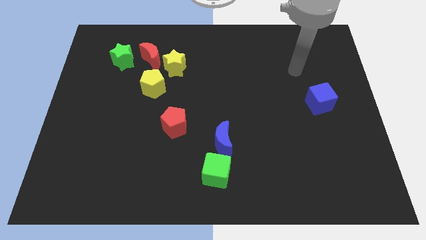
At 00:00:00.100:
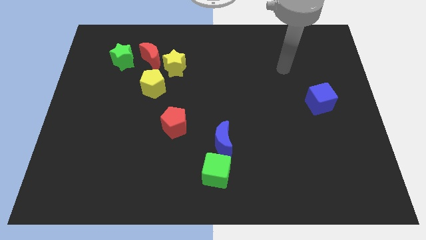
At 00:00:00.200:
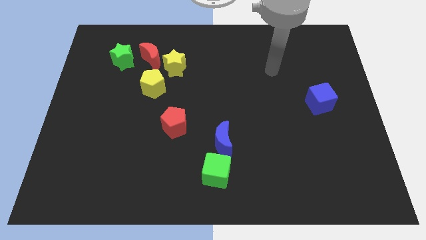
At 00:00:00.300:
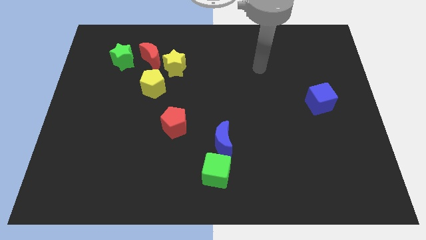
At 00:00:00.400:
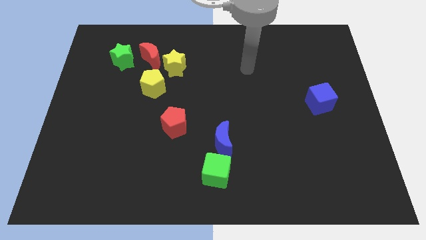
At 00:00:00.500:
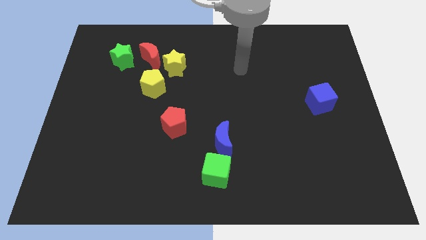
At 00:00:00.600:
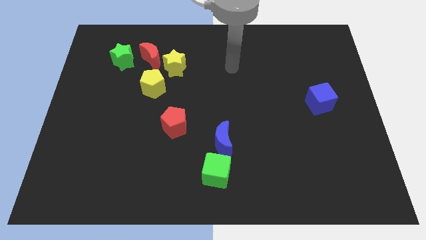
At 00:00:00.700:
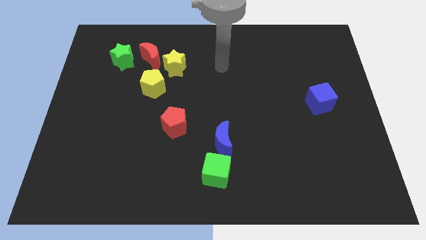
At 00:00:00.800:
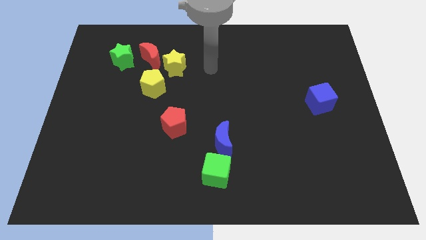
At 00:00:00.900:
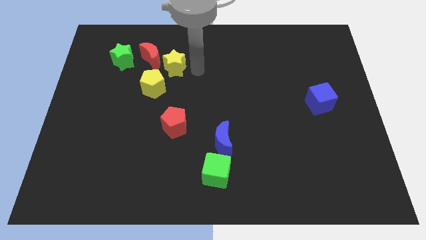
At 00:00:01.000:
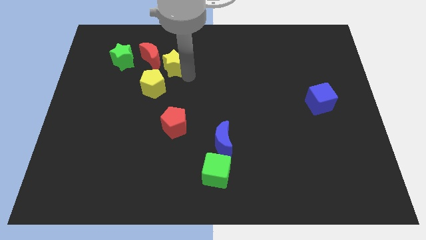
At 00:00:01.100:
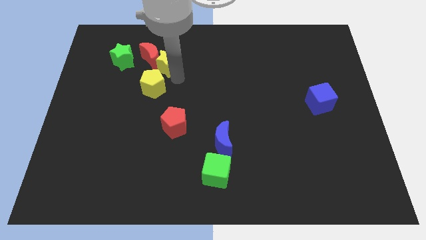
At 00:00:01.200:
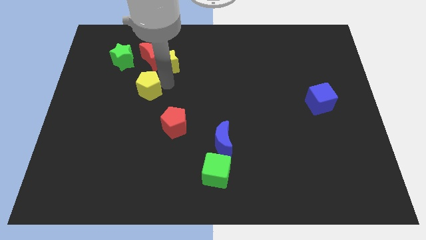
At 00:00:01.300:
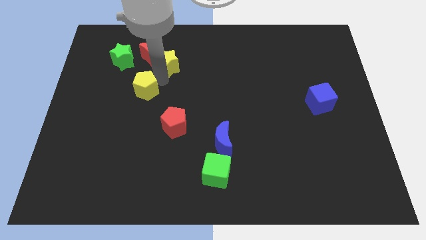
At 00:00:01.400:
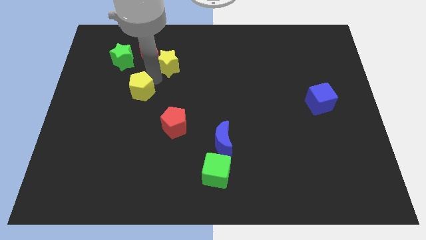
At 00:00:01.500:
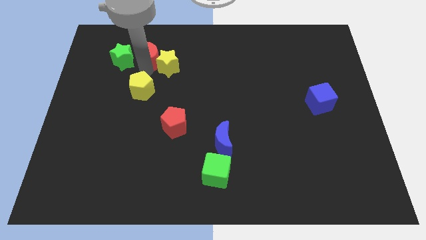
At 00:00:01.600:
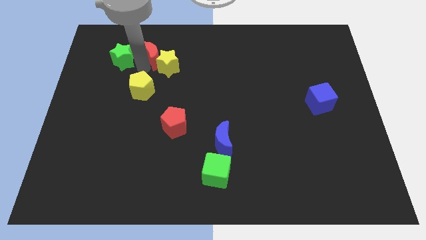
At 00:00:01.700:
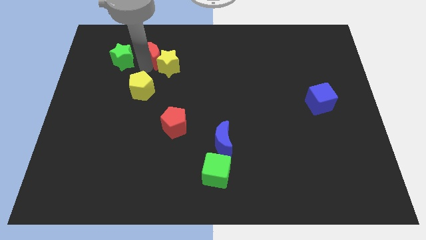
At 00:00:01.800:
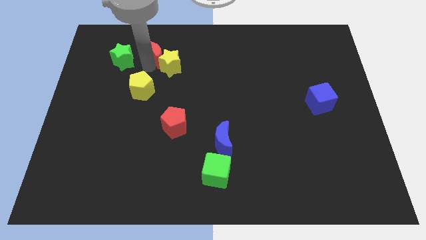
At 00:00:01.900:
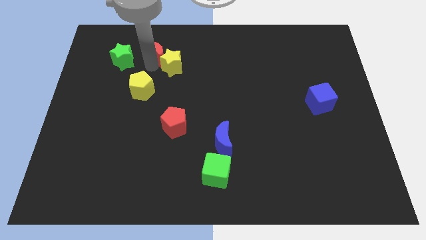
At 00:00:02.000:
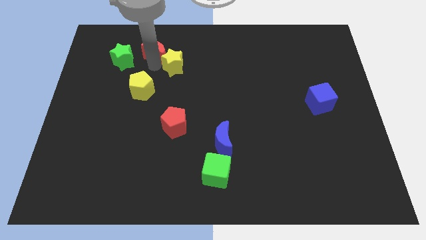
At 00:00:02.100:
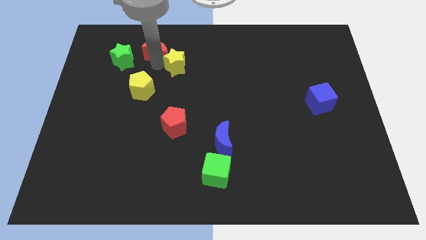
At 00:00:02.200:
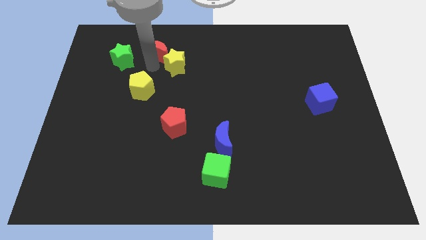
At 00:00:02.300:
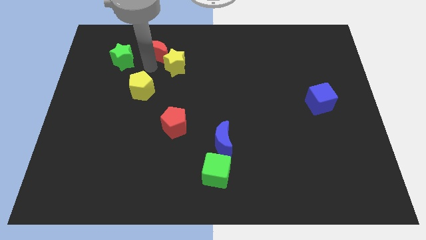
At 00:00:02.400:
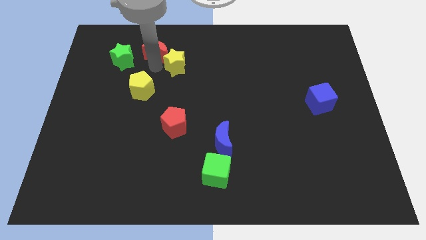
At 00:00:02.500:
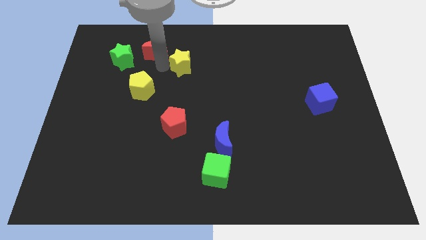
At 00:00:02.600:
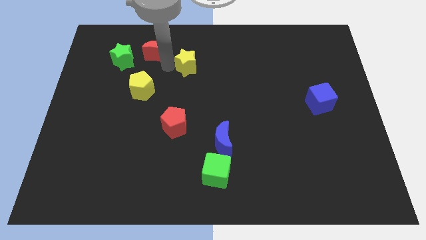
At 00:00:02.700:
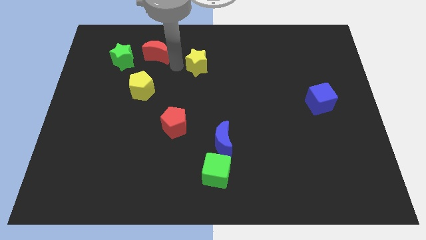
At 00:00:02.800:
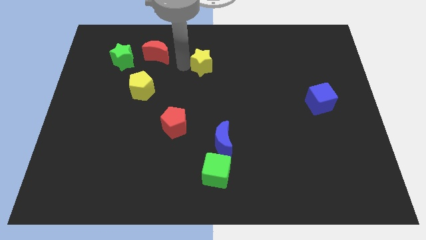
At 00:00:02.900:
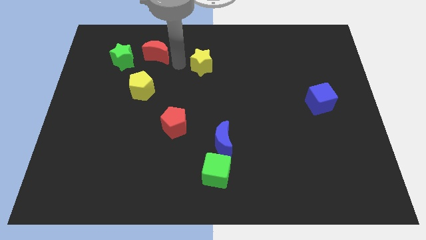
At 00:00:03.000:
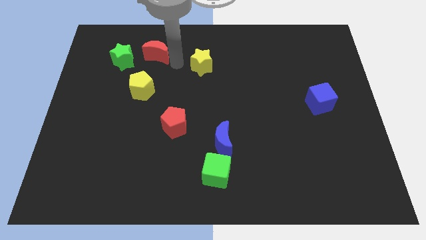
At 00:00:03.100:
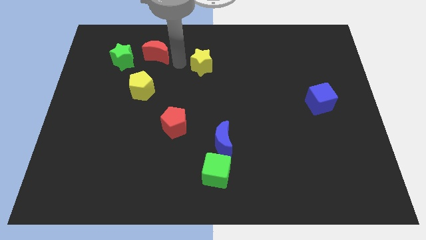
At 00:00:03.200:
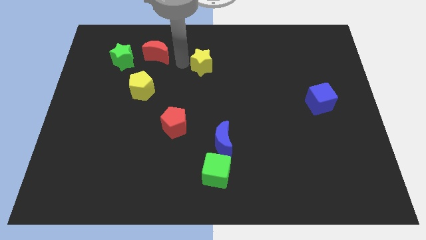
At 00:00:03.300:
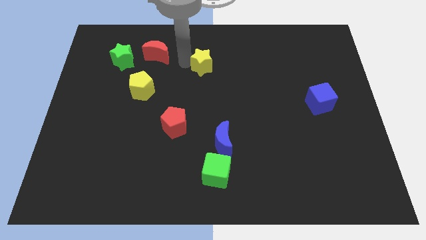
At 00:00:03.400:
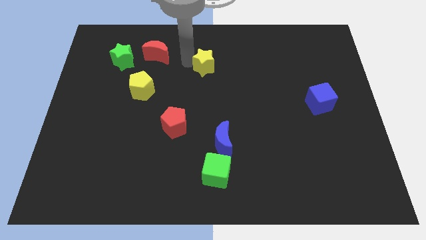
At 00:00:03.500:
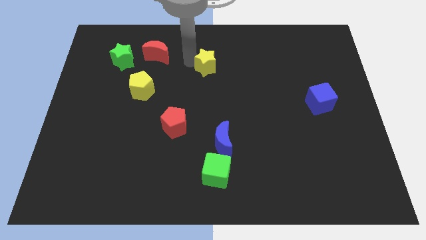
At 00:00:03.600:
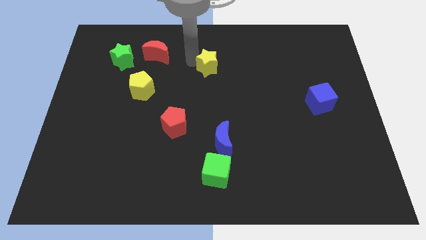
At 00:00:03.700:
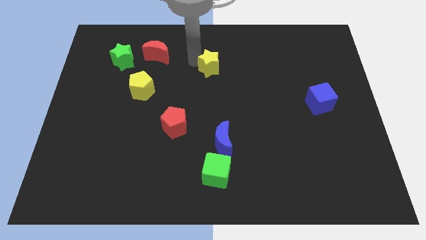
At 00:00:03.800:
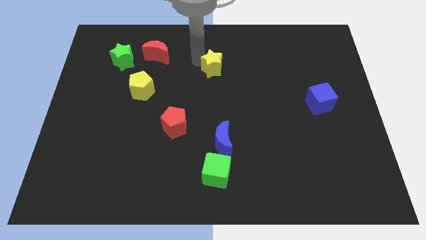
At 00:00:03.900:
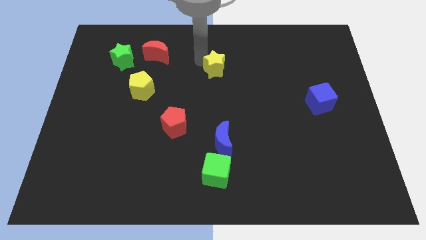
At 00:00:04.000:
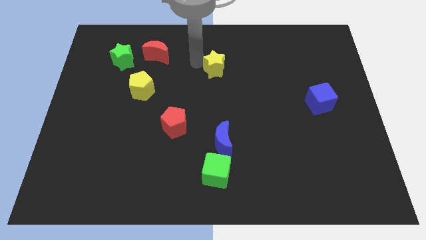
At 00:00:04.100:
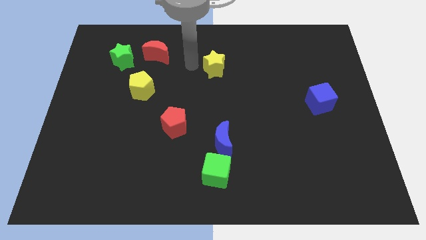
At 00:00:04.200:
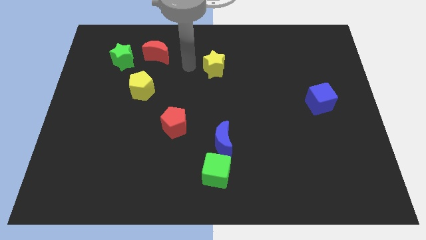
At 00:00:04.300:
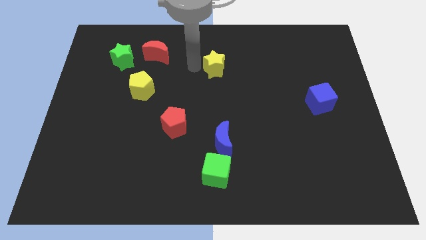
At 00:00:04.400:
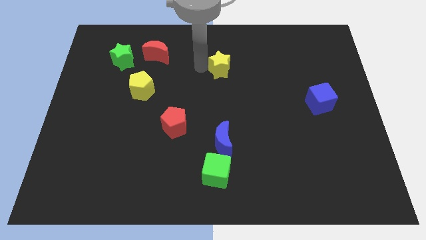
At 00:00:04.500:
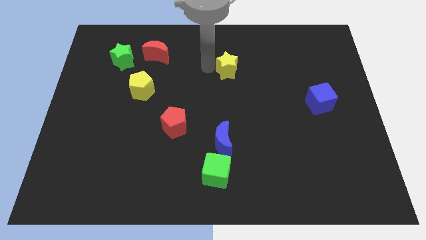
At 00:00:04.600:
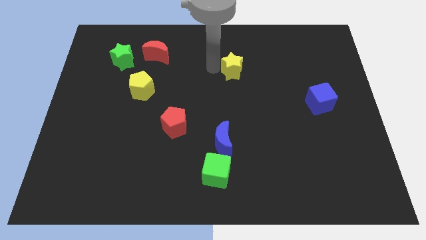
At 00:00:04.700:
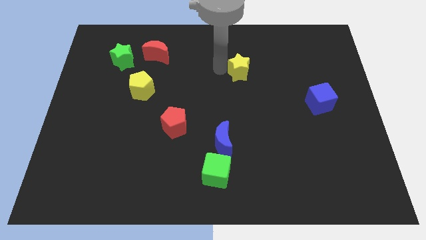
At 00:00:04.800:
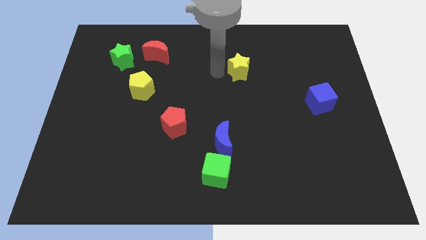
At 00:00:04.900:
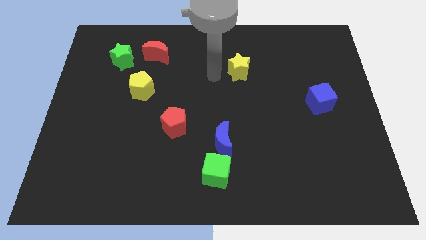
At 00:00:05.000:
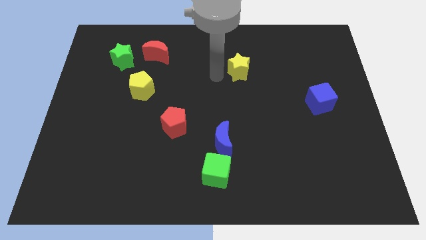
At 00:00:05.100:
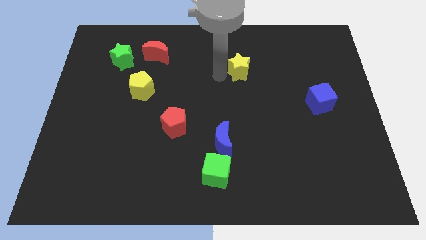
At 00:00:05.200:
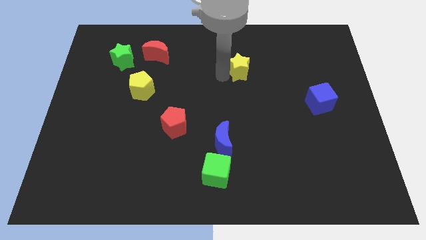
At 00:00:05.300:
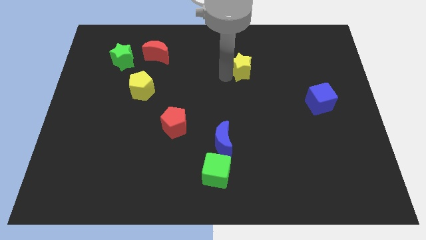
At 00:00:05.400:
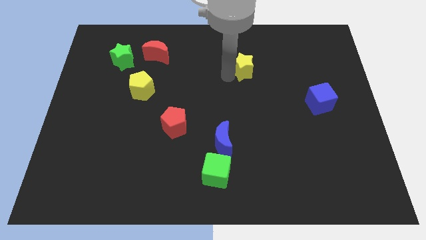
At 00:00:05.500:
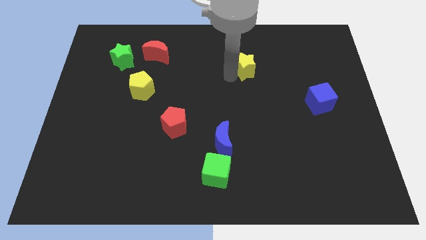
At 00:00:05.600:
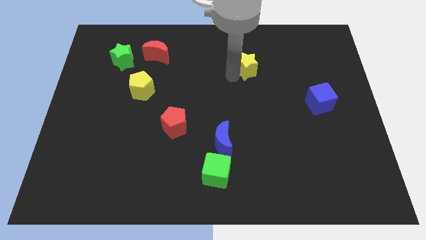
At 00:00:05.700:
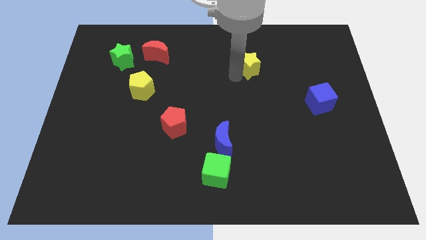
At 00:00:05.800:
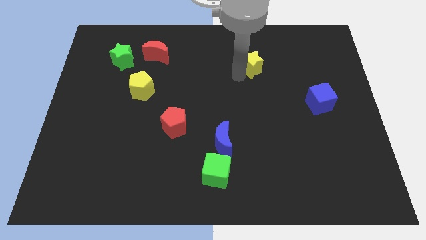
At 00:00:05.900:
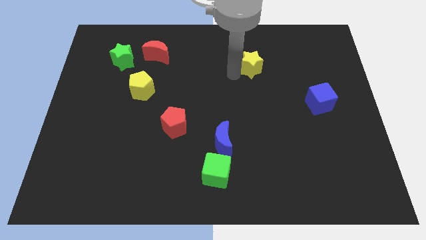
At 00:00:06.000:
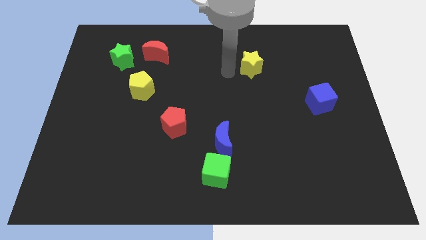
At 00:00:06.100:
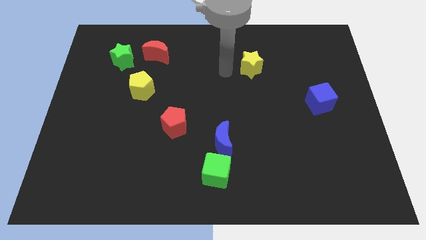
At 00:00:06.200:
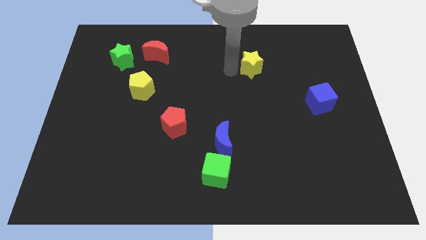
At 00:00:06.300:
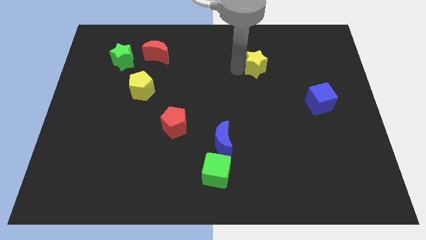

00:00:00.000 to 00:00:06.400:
slide the yellow star right

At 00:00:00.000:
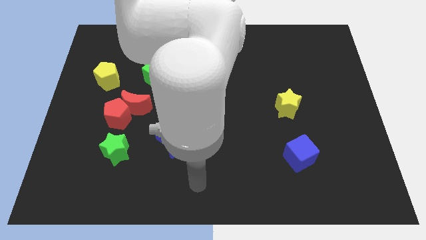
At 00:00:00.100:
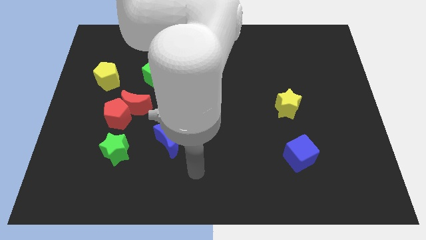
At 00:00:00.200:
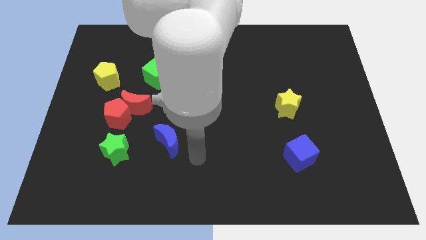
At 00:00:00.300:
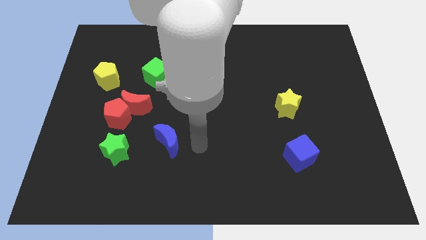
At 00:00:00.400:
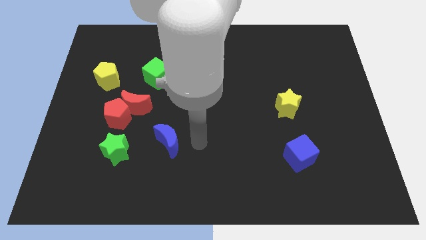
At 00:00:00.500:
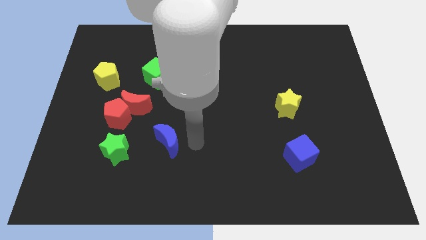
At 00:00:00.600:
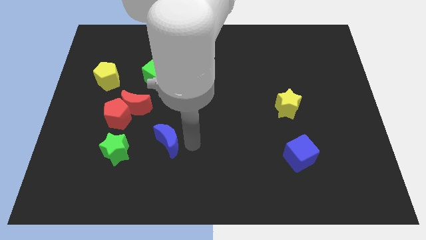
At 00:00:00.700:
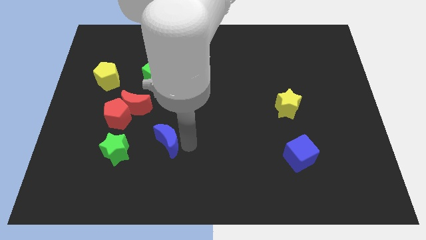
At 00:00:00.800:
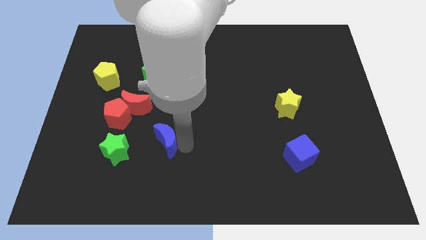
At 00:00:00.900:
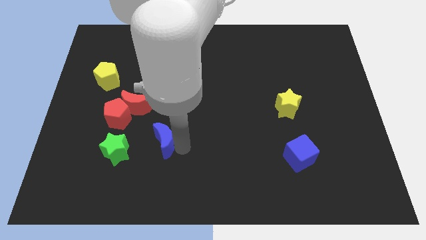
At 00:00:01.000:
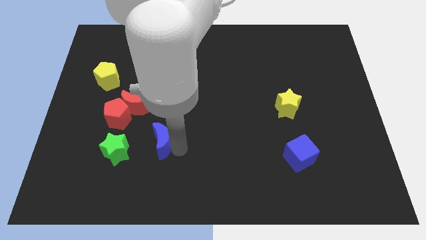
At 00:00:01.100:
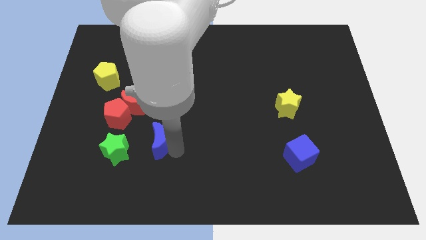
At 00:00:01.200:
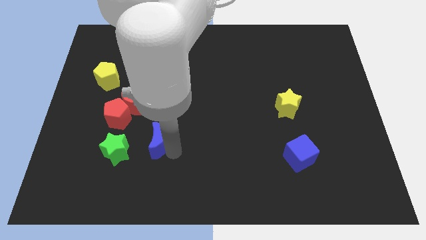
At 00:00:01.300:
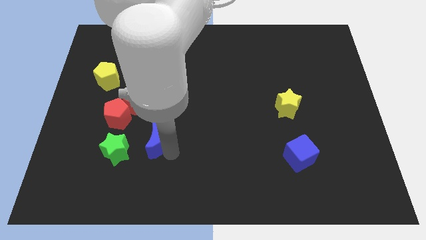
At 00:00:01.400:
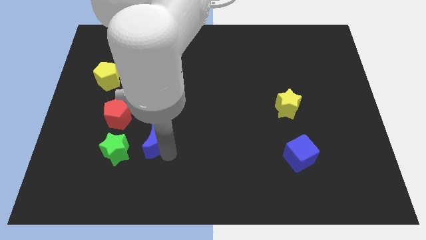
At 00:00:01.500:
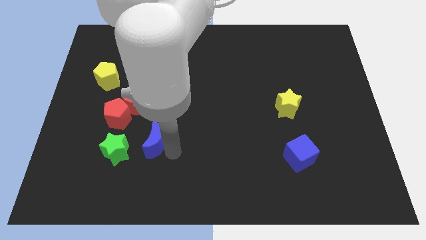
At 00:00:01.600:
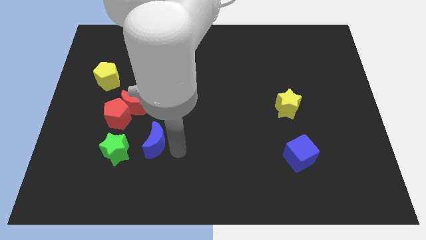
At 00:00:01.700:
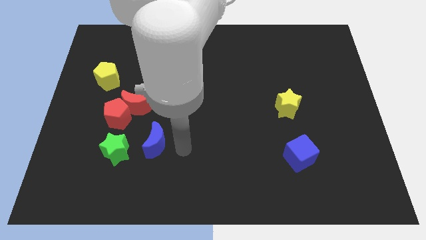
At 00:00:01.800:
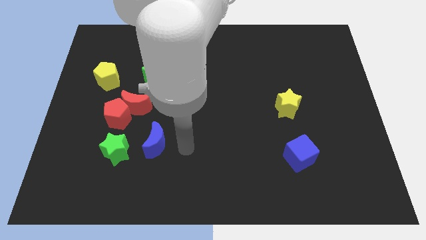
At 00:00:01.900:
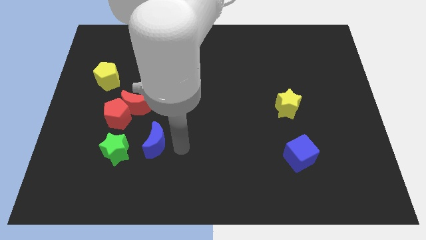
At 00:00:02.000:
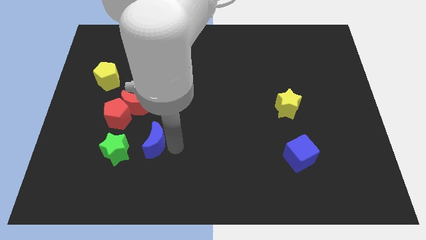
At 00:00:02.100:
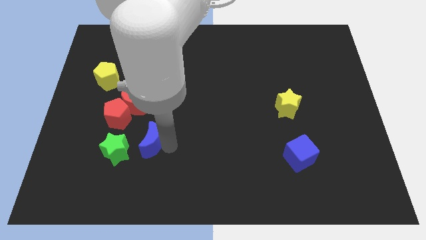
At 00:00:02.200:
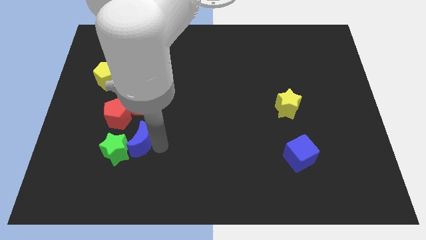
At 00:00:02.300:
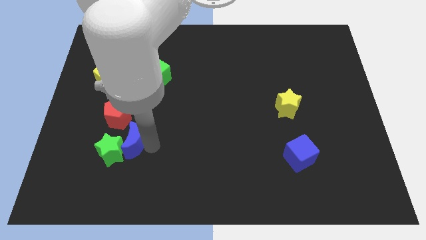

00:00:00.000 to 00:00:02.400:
slide the blue moon left slightly
